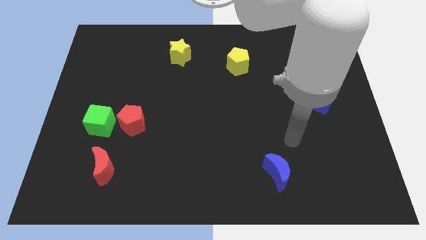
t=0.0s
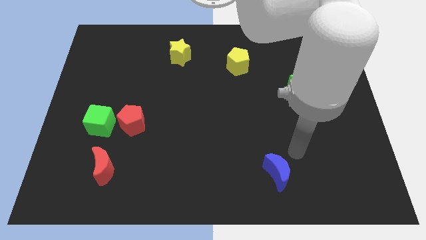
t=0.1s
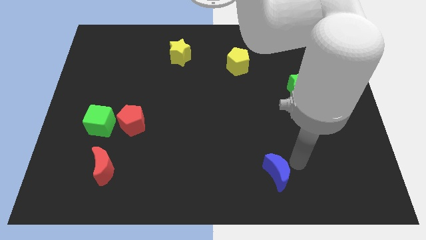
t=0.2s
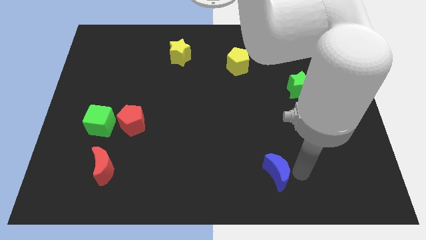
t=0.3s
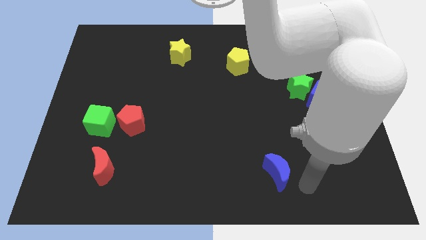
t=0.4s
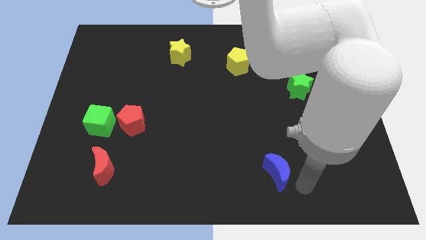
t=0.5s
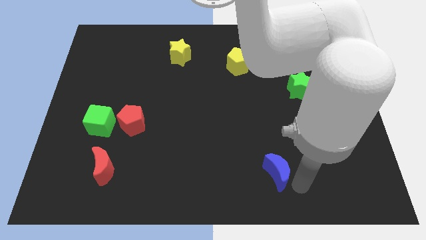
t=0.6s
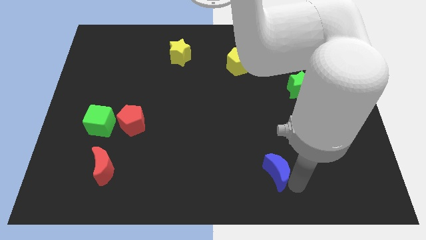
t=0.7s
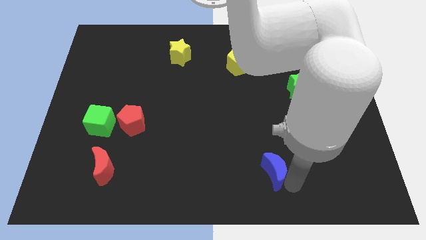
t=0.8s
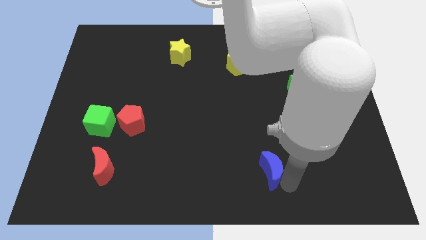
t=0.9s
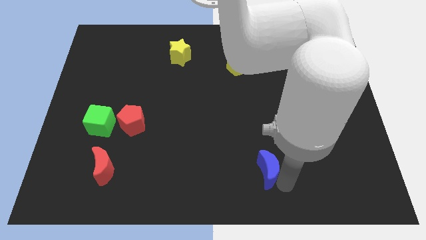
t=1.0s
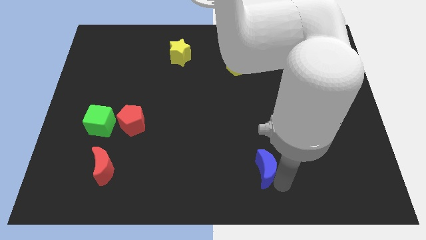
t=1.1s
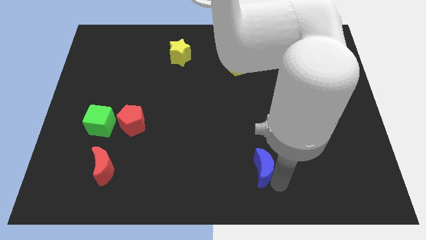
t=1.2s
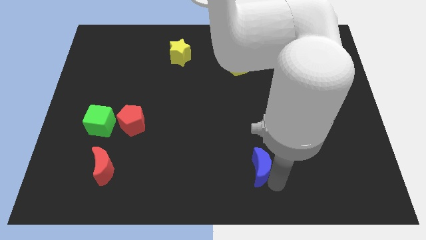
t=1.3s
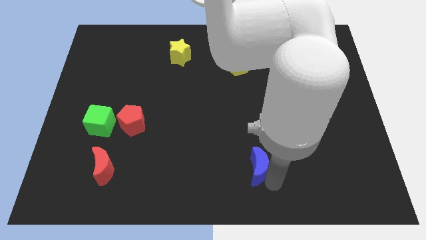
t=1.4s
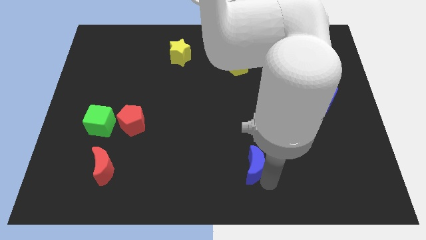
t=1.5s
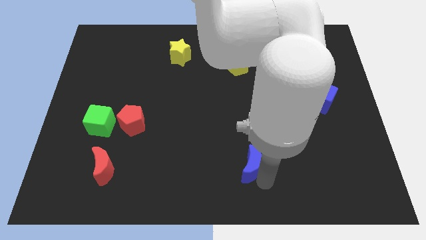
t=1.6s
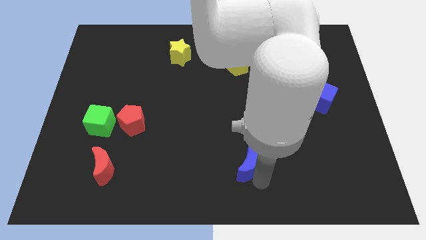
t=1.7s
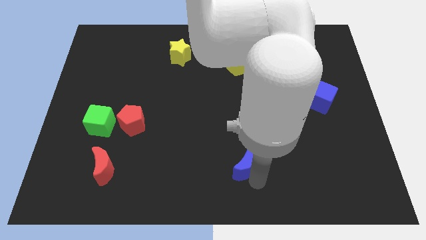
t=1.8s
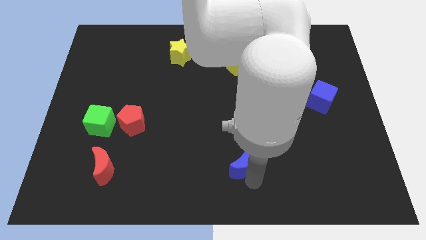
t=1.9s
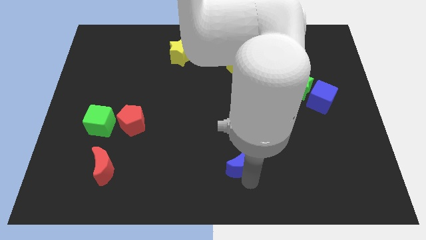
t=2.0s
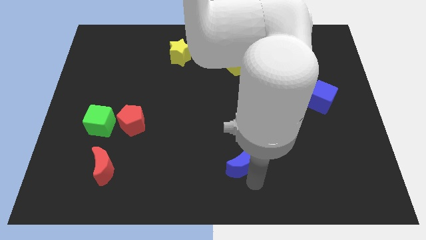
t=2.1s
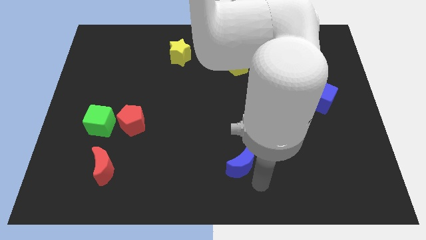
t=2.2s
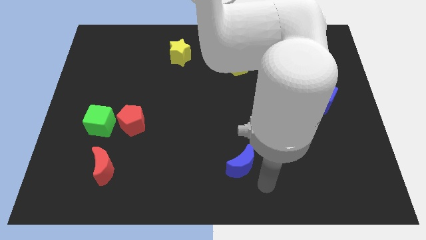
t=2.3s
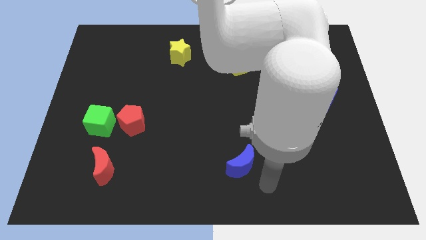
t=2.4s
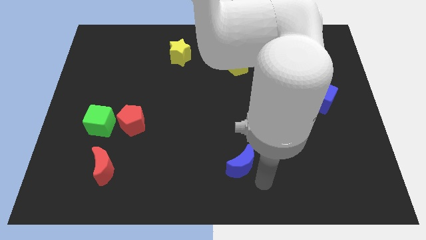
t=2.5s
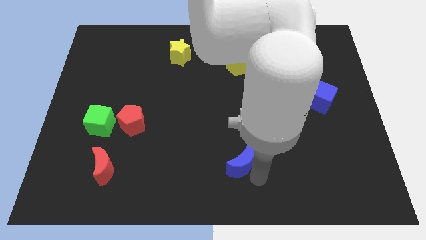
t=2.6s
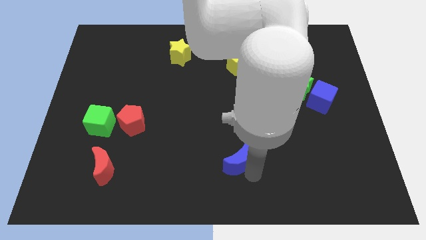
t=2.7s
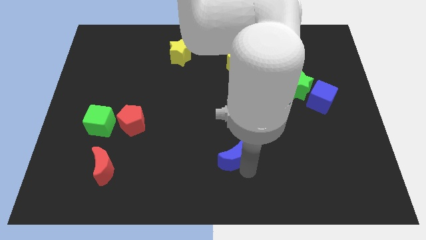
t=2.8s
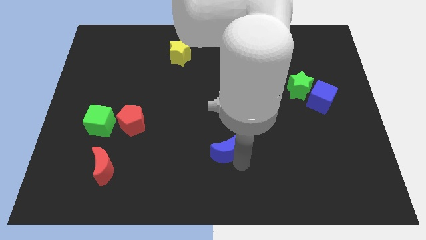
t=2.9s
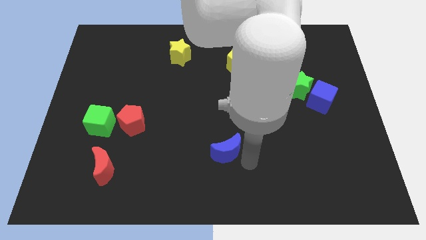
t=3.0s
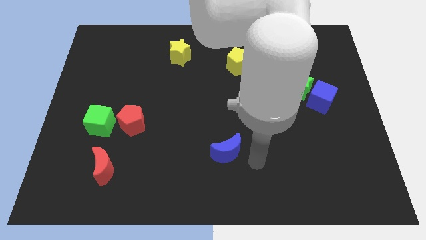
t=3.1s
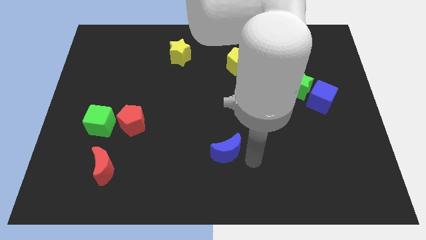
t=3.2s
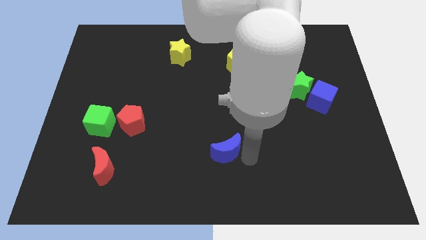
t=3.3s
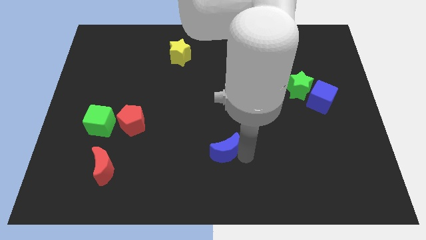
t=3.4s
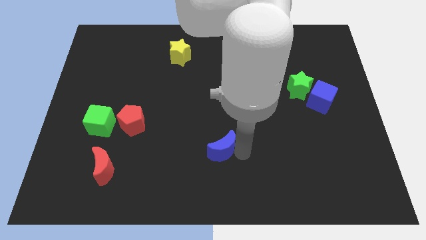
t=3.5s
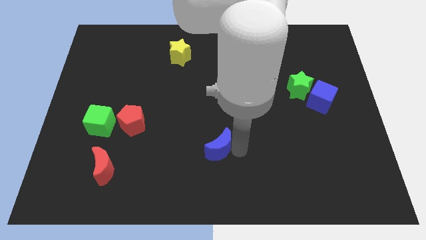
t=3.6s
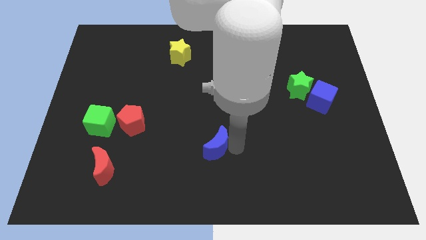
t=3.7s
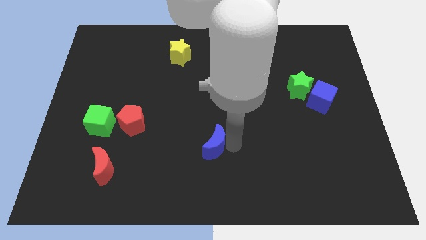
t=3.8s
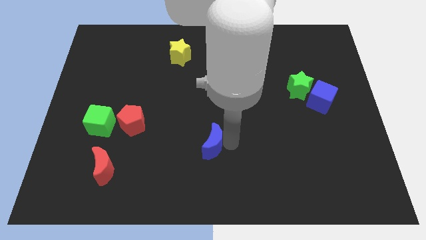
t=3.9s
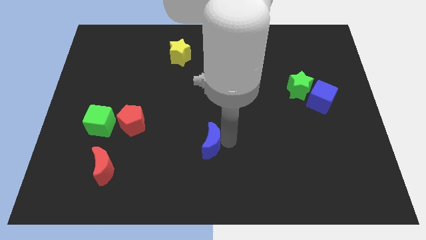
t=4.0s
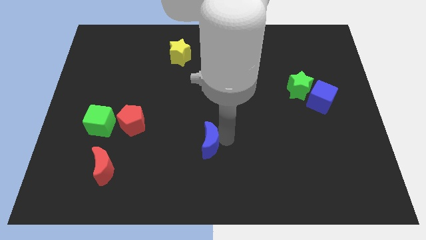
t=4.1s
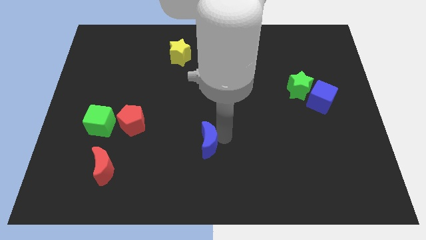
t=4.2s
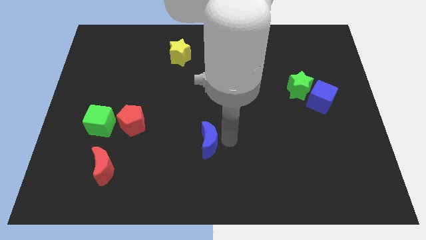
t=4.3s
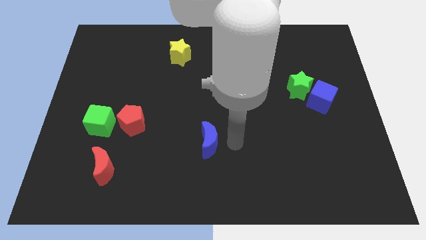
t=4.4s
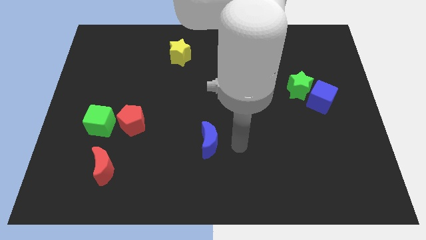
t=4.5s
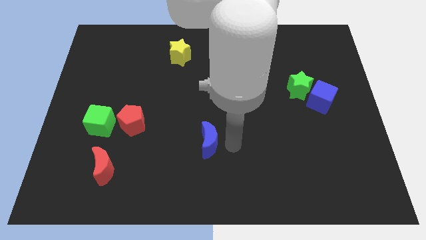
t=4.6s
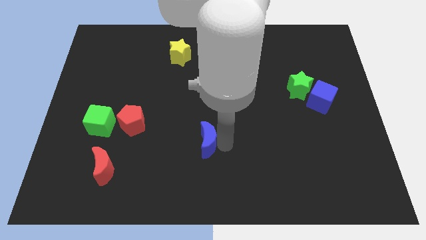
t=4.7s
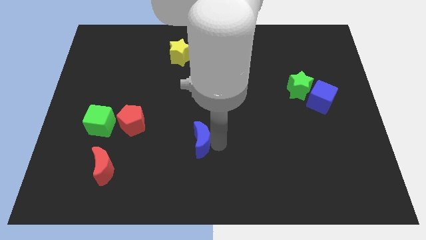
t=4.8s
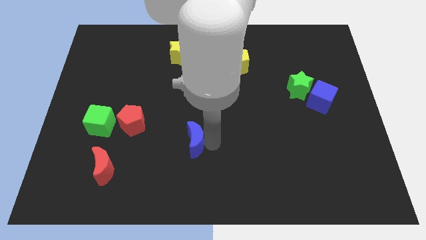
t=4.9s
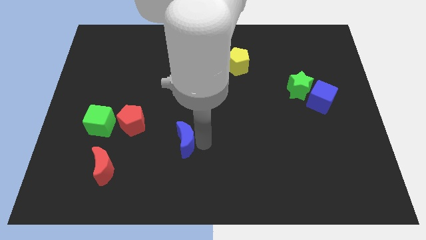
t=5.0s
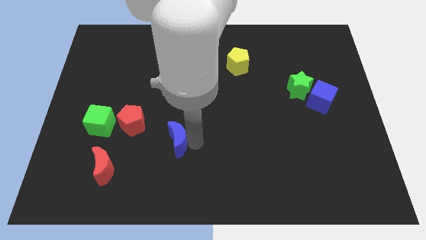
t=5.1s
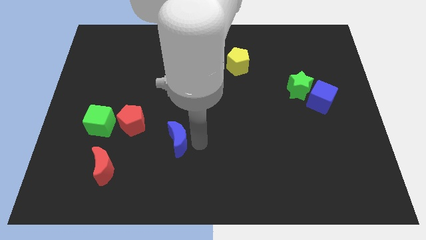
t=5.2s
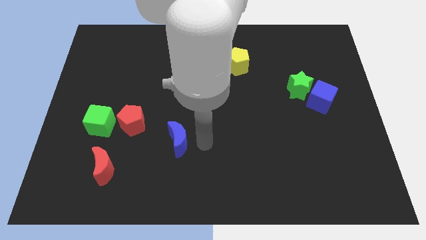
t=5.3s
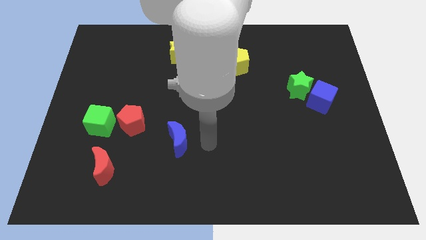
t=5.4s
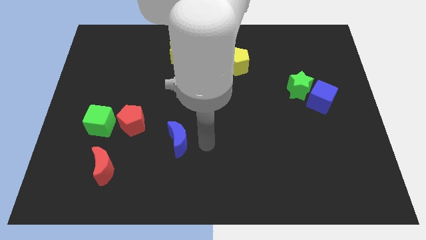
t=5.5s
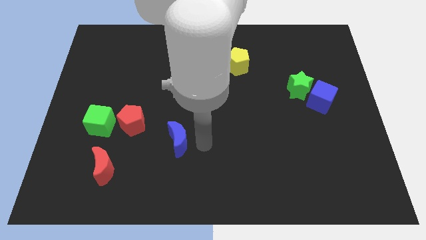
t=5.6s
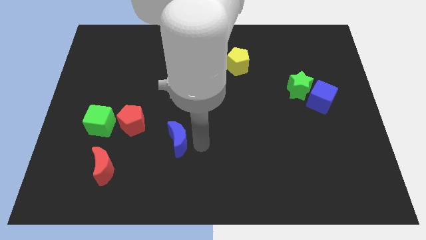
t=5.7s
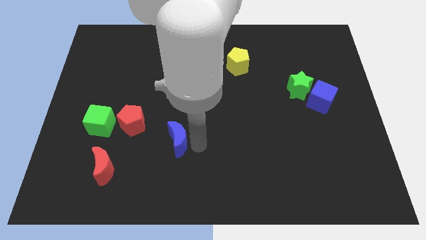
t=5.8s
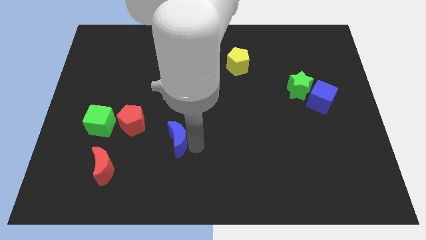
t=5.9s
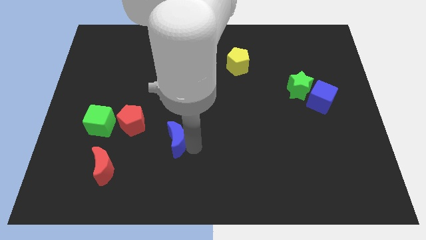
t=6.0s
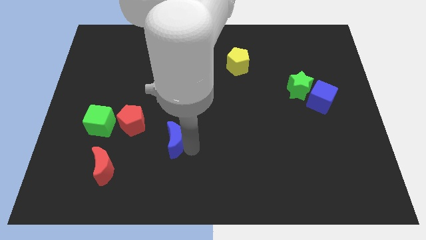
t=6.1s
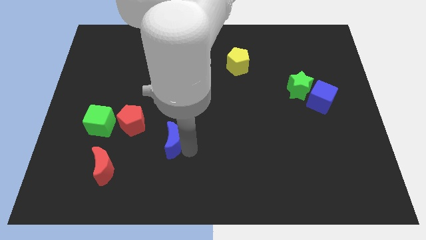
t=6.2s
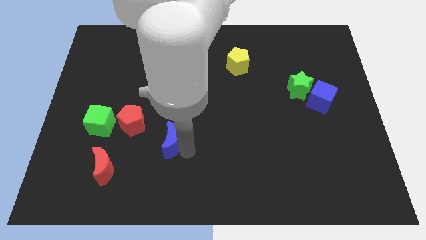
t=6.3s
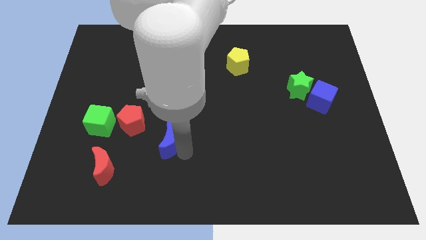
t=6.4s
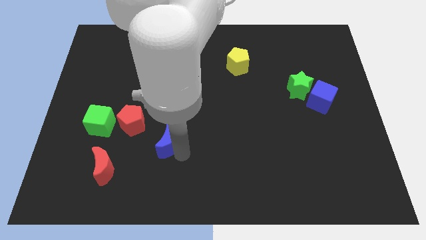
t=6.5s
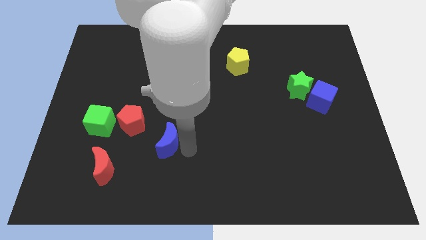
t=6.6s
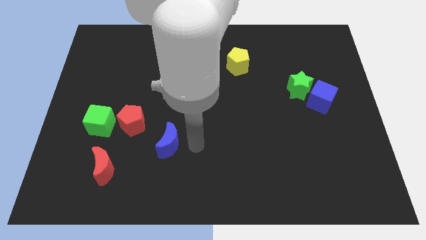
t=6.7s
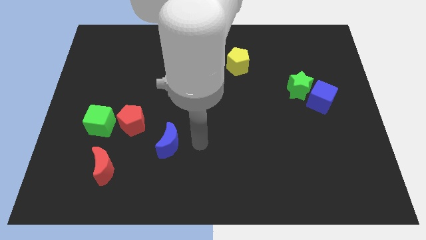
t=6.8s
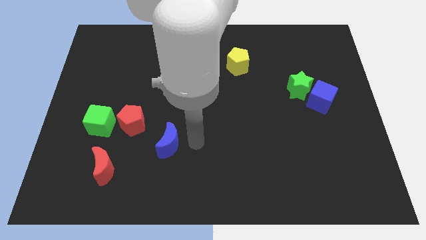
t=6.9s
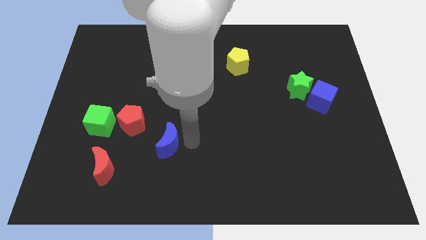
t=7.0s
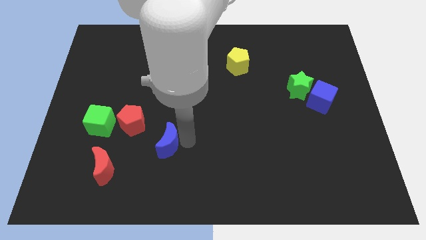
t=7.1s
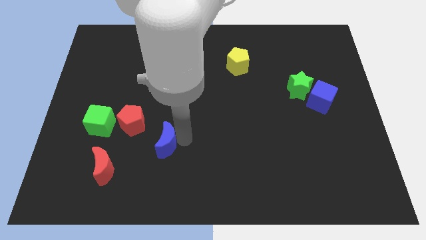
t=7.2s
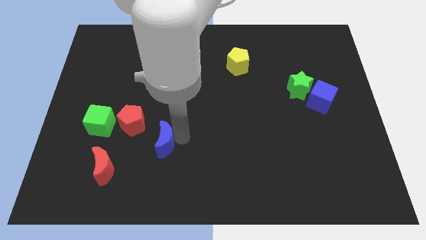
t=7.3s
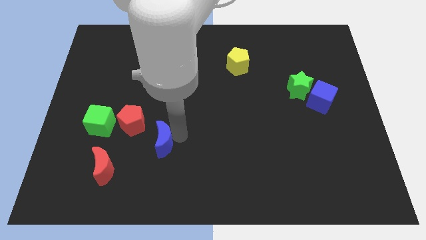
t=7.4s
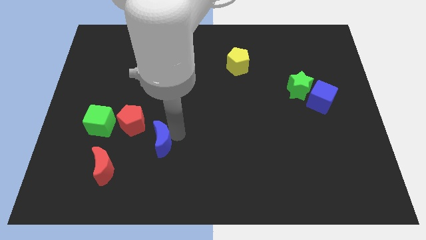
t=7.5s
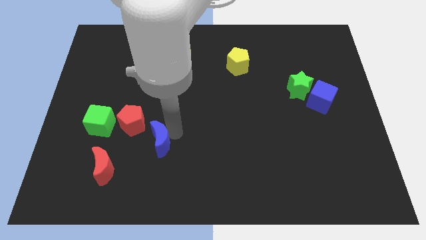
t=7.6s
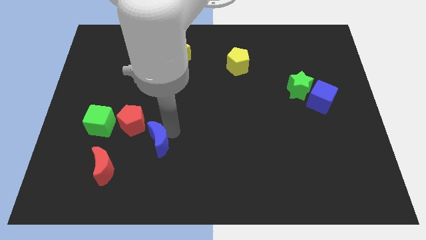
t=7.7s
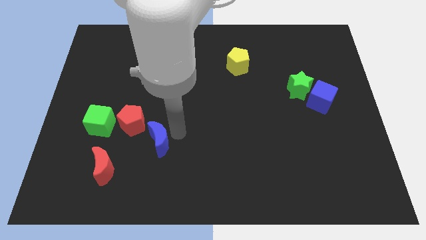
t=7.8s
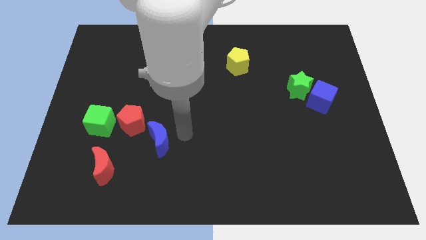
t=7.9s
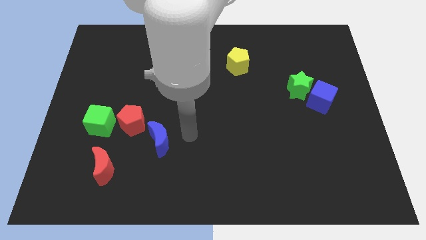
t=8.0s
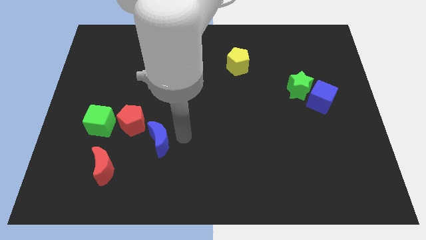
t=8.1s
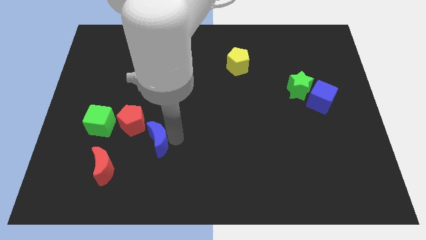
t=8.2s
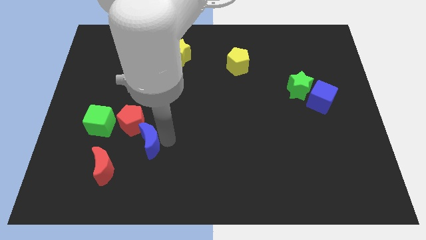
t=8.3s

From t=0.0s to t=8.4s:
push the blue moon to the top right of the red moon
